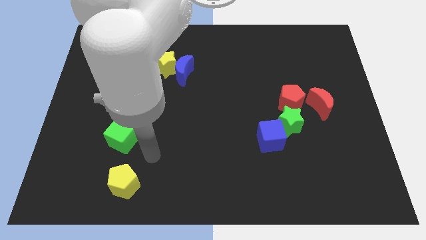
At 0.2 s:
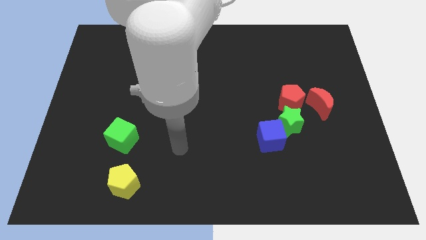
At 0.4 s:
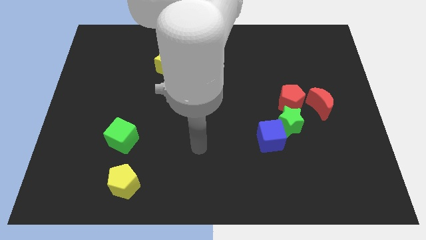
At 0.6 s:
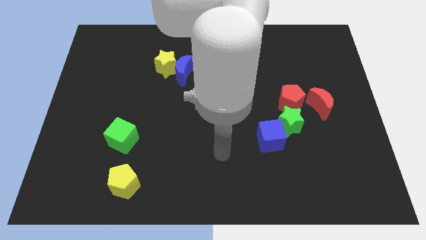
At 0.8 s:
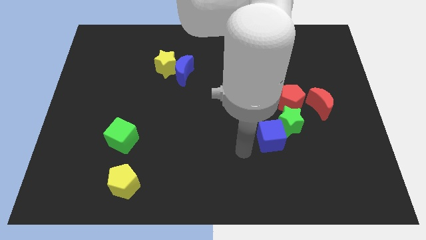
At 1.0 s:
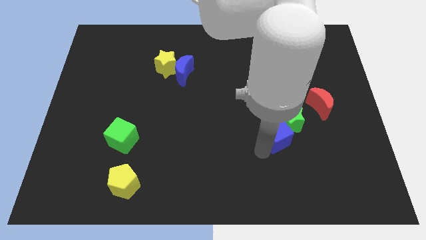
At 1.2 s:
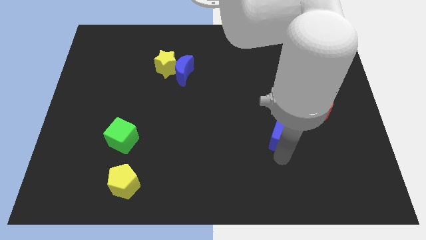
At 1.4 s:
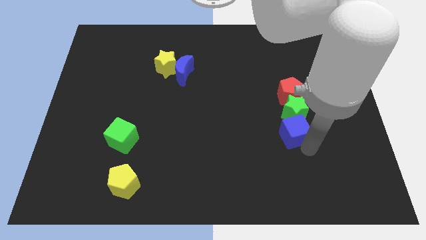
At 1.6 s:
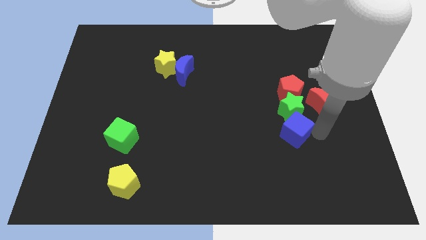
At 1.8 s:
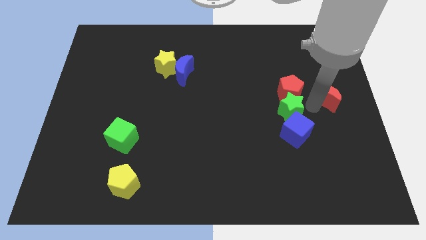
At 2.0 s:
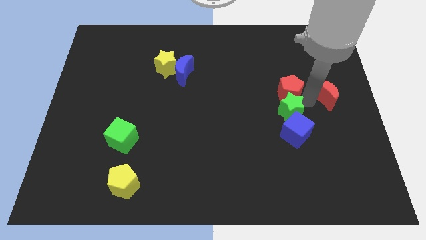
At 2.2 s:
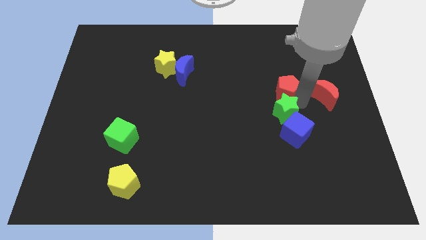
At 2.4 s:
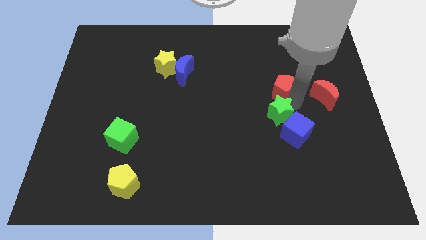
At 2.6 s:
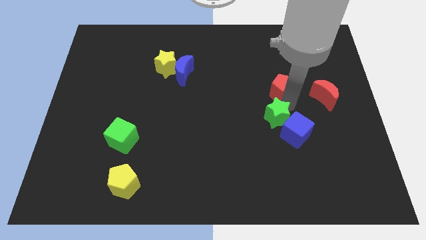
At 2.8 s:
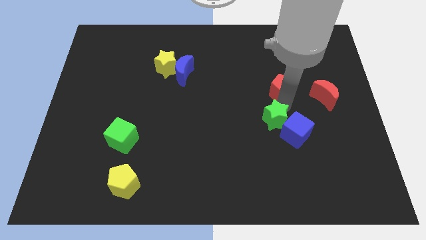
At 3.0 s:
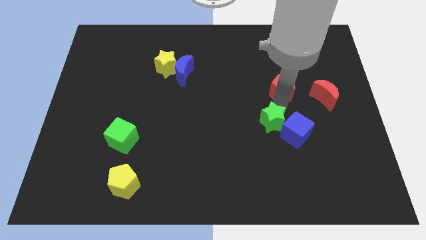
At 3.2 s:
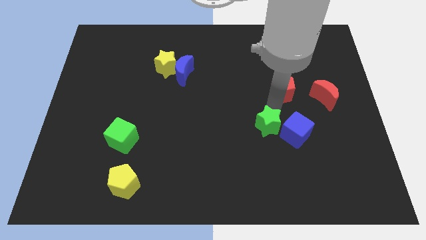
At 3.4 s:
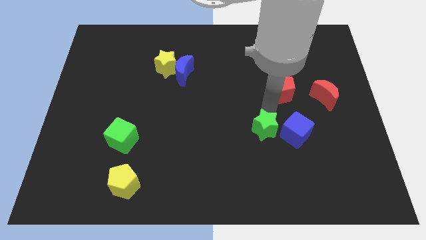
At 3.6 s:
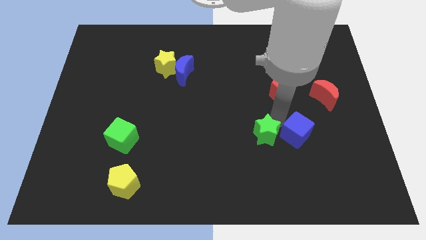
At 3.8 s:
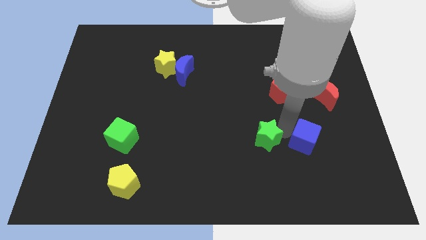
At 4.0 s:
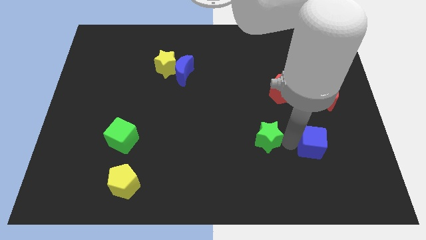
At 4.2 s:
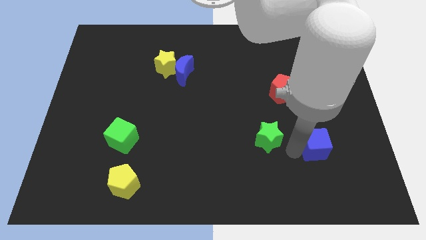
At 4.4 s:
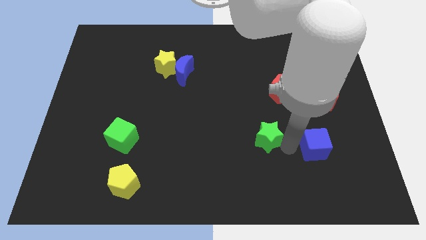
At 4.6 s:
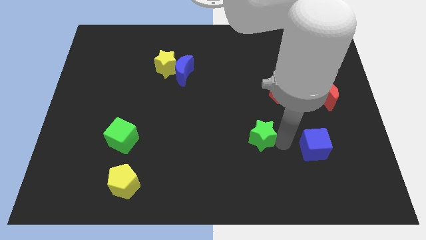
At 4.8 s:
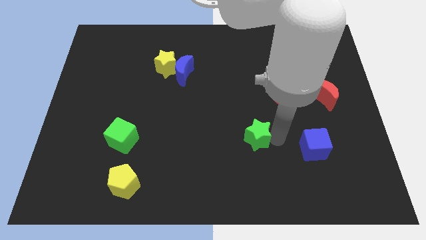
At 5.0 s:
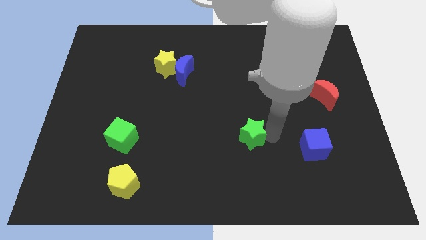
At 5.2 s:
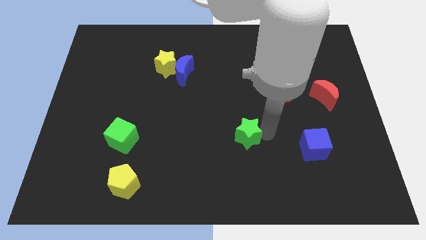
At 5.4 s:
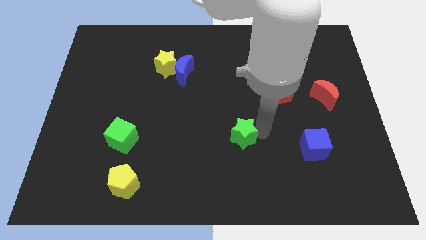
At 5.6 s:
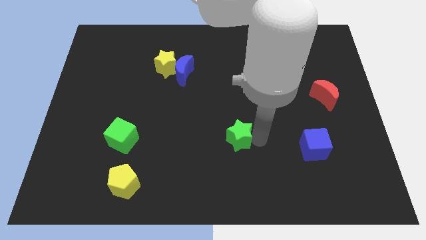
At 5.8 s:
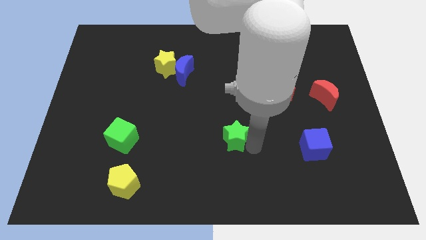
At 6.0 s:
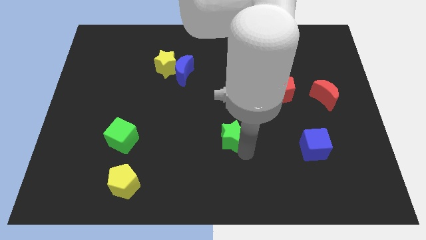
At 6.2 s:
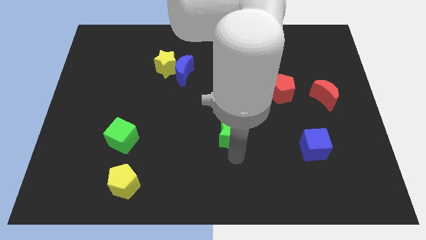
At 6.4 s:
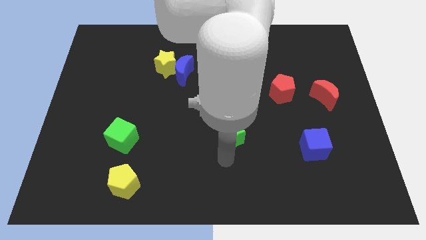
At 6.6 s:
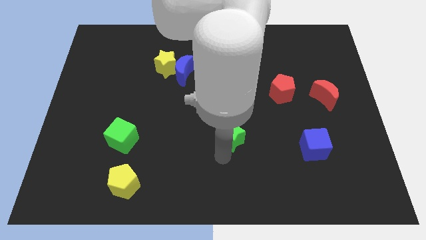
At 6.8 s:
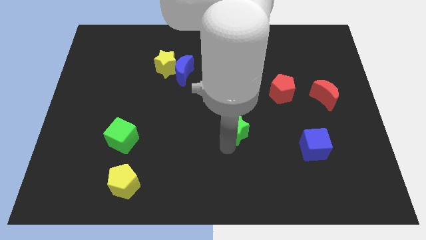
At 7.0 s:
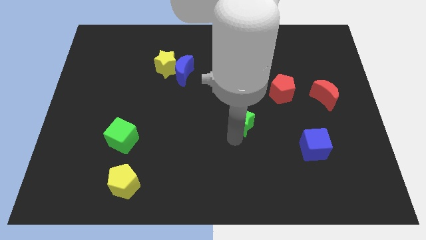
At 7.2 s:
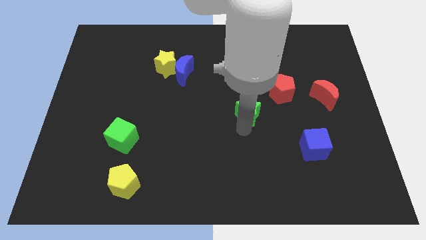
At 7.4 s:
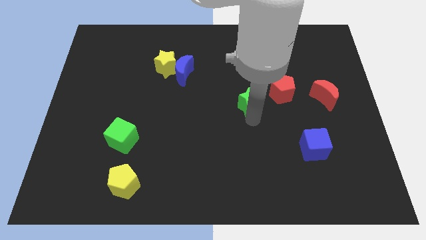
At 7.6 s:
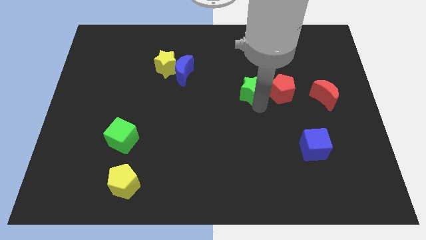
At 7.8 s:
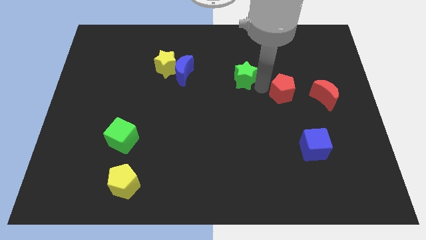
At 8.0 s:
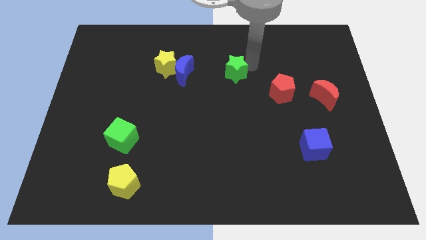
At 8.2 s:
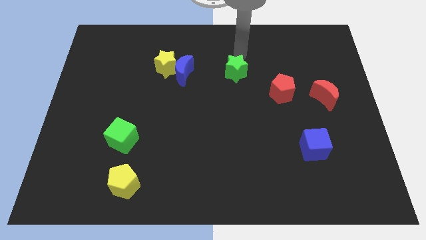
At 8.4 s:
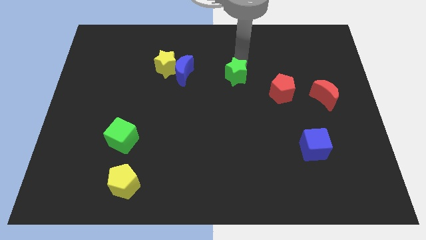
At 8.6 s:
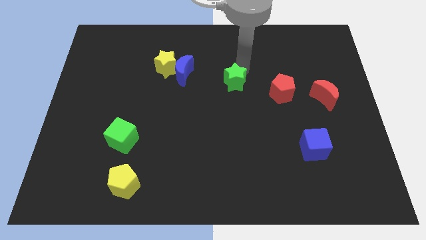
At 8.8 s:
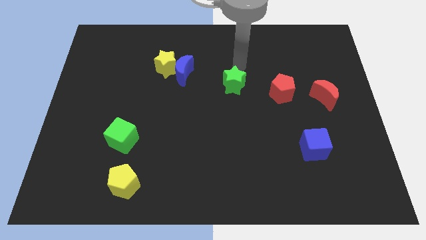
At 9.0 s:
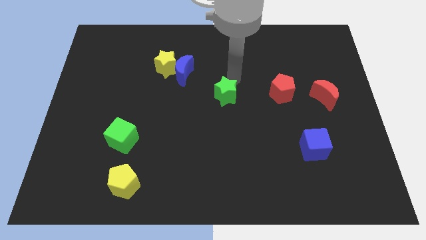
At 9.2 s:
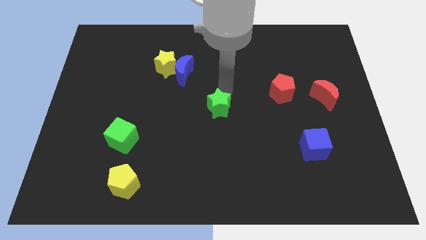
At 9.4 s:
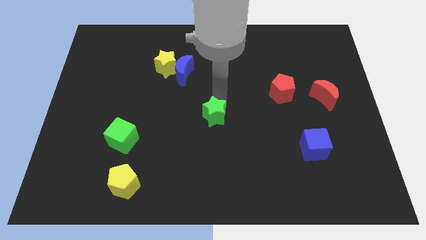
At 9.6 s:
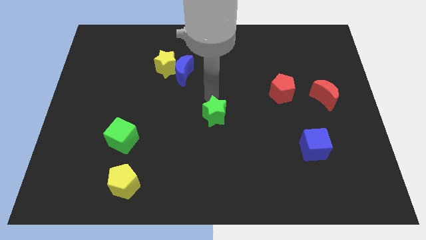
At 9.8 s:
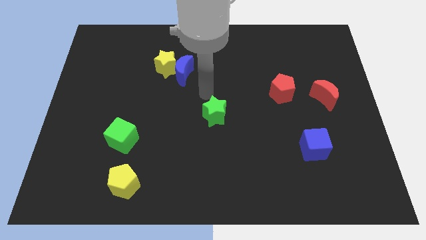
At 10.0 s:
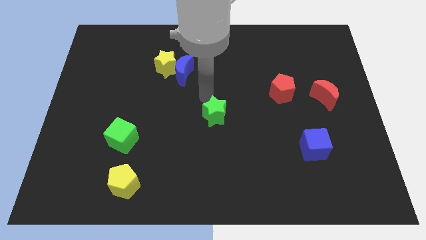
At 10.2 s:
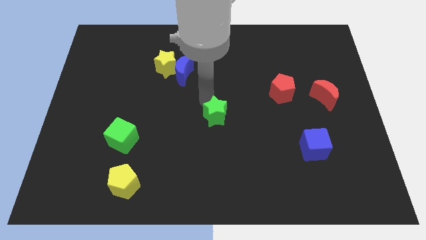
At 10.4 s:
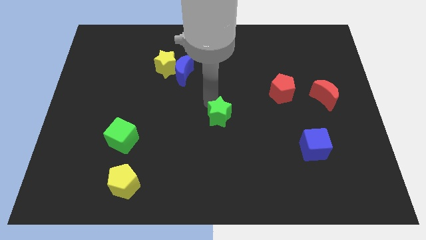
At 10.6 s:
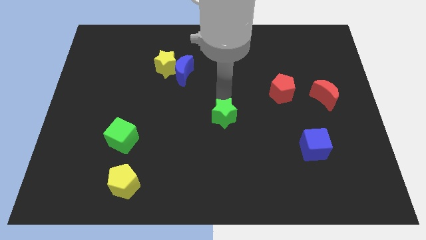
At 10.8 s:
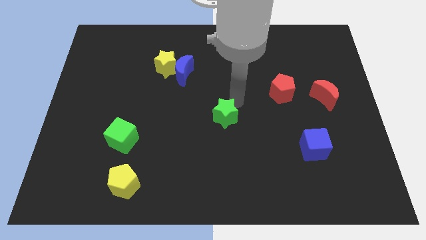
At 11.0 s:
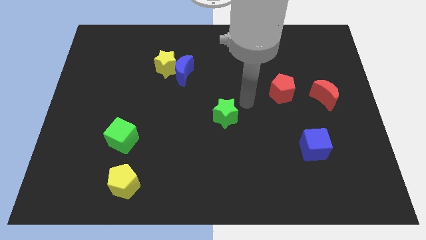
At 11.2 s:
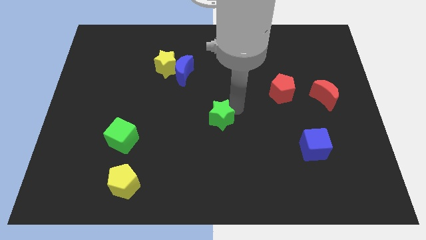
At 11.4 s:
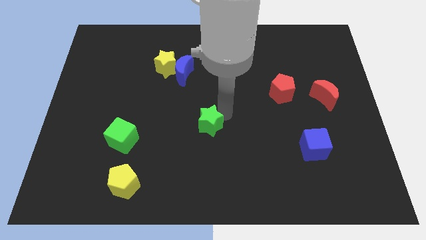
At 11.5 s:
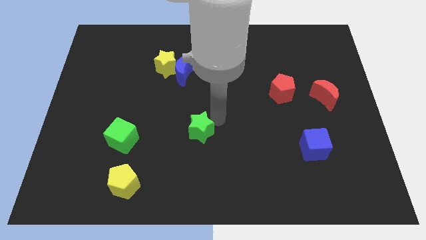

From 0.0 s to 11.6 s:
push the green star left

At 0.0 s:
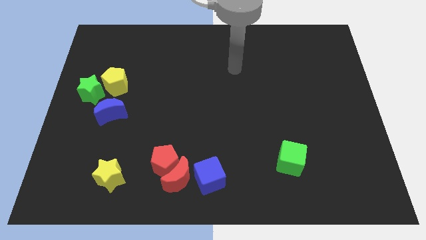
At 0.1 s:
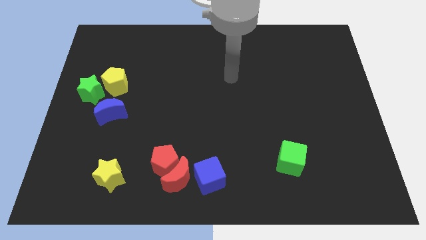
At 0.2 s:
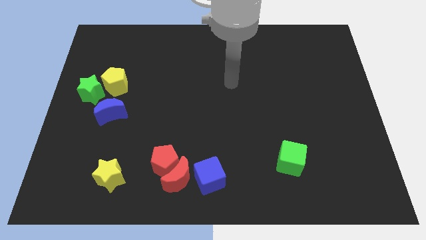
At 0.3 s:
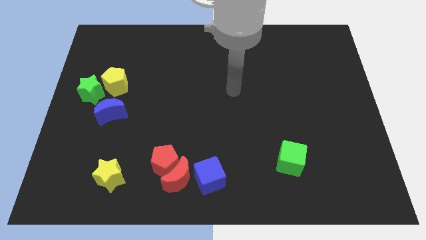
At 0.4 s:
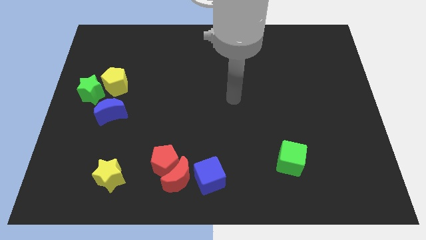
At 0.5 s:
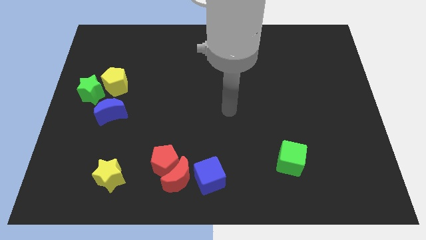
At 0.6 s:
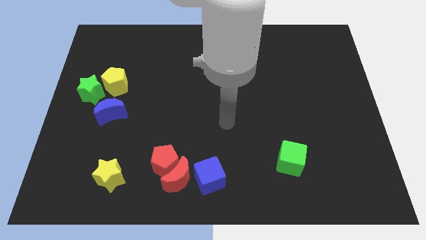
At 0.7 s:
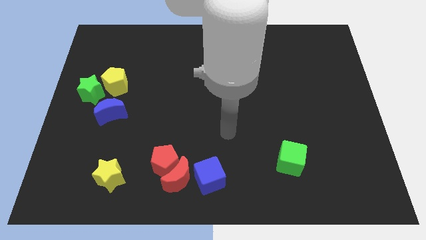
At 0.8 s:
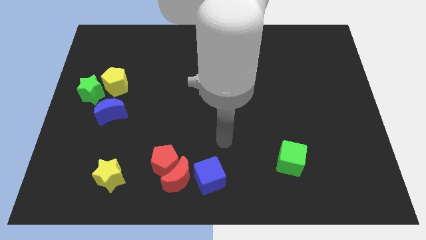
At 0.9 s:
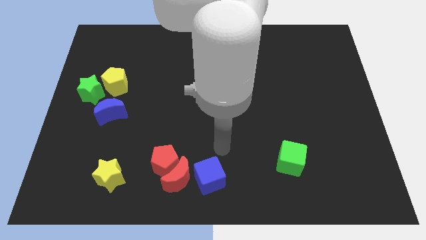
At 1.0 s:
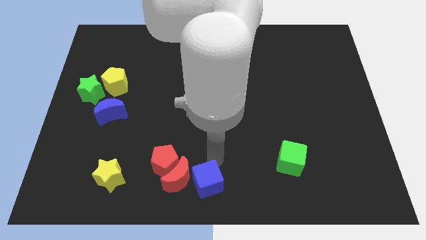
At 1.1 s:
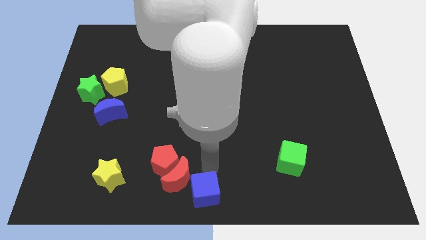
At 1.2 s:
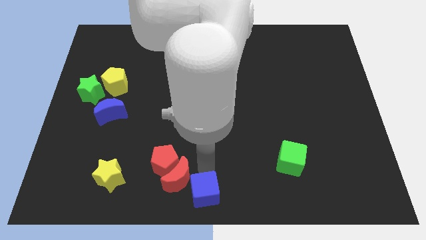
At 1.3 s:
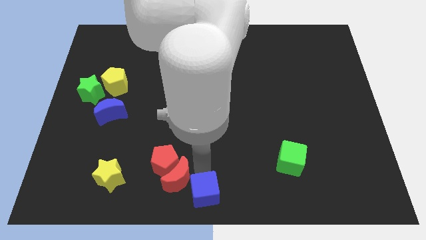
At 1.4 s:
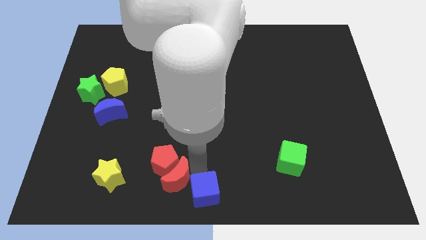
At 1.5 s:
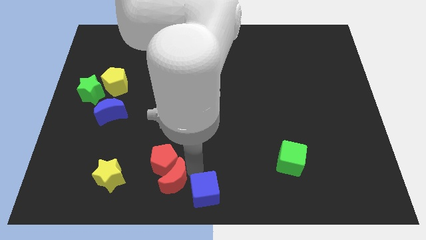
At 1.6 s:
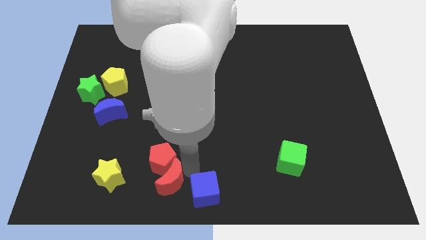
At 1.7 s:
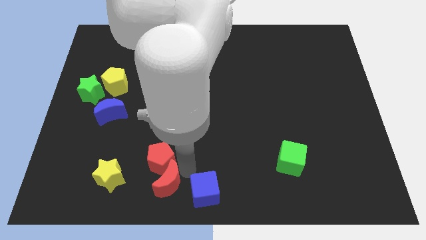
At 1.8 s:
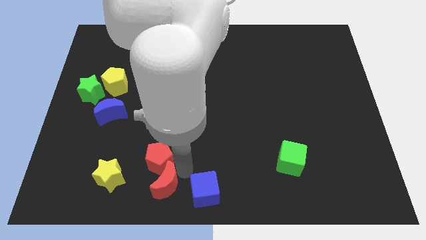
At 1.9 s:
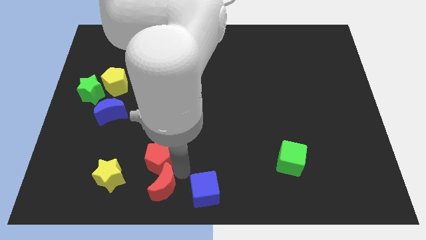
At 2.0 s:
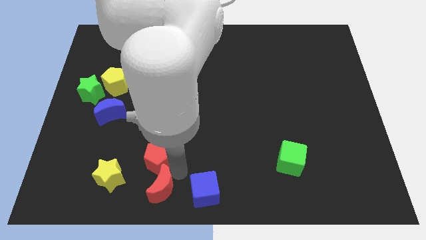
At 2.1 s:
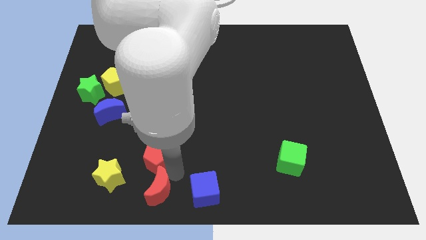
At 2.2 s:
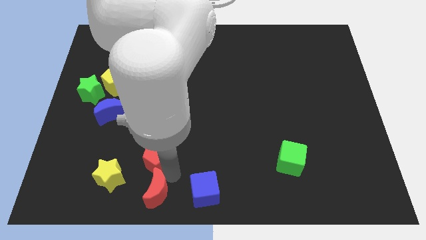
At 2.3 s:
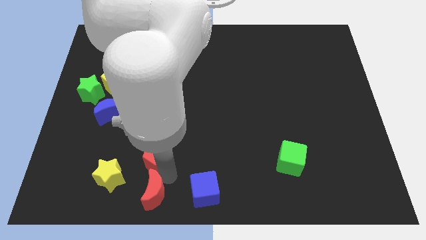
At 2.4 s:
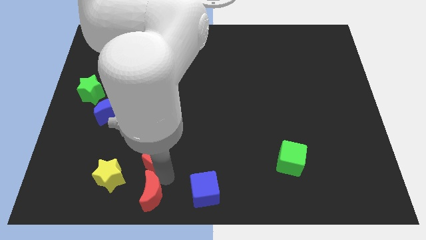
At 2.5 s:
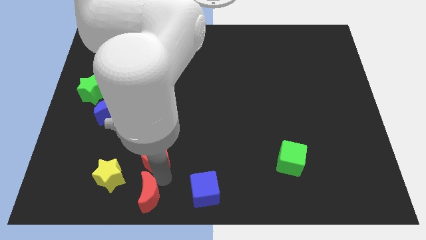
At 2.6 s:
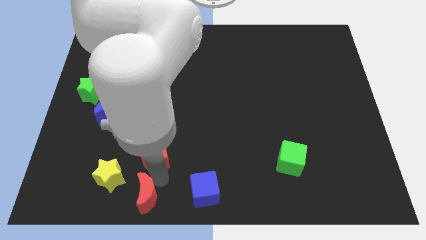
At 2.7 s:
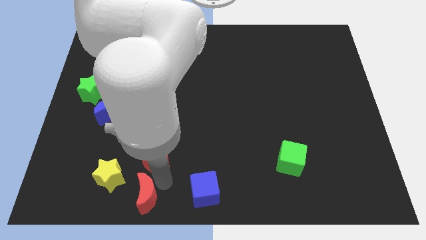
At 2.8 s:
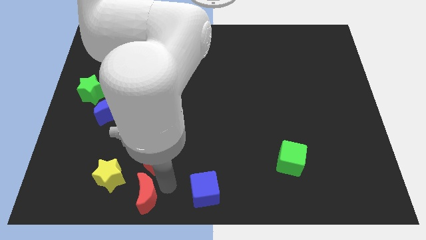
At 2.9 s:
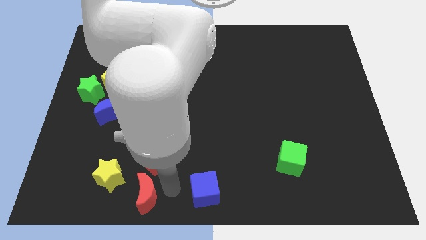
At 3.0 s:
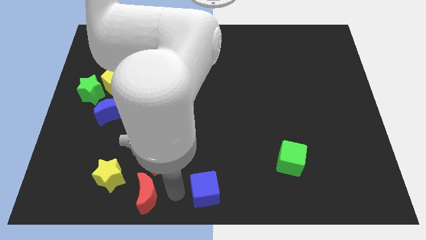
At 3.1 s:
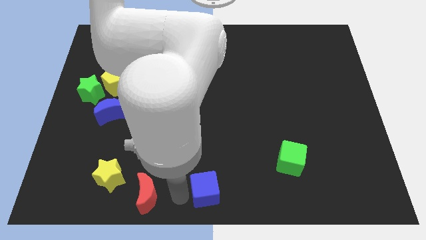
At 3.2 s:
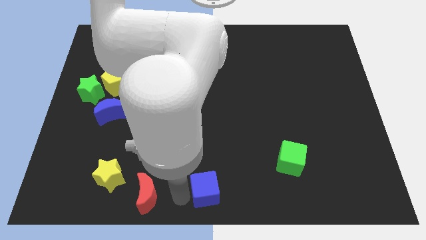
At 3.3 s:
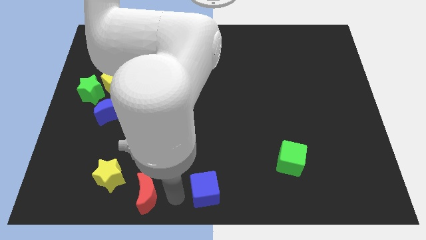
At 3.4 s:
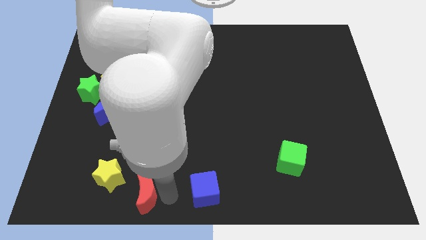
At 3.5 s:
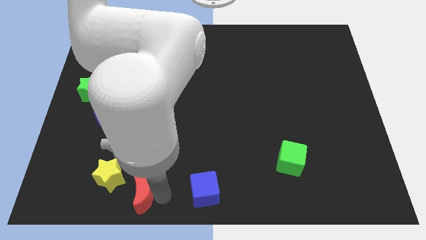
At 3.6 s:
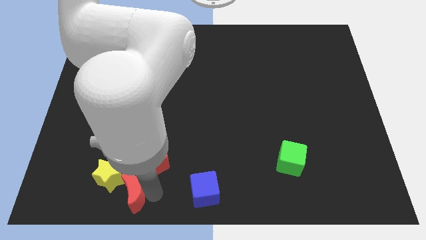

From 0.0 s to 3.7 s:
slightly slide the red moon to the left
